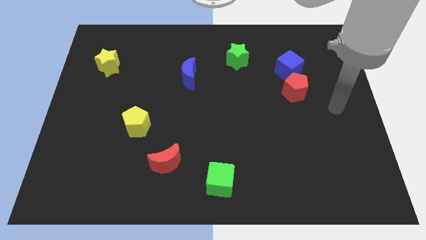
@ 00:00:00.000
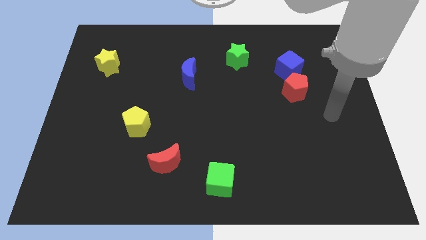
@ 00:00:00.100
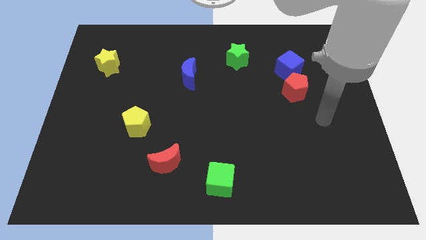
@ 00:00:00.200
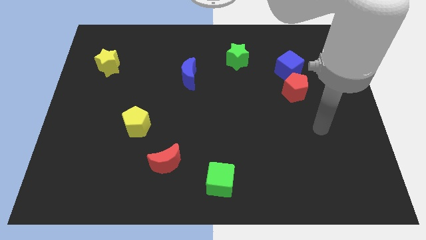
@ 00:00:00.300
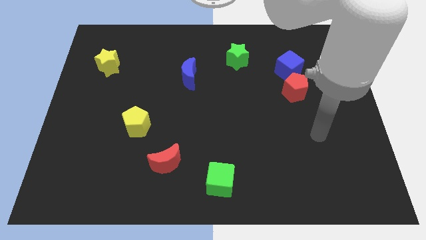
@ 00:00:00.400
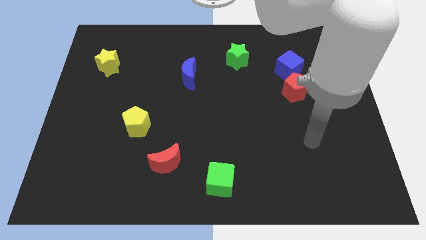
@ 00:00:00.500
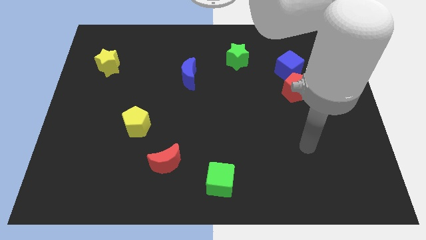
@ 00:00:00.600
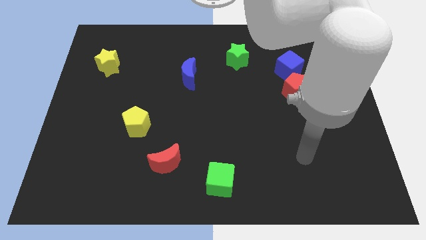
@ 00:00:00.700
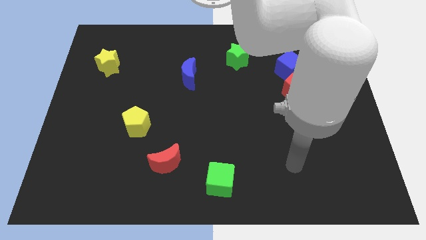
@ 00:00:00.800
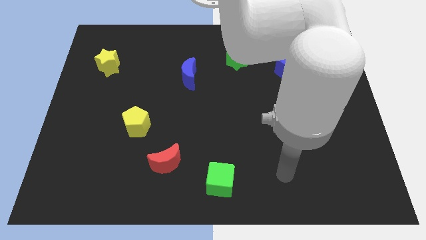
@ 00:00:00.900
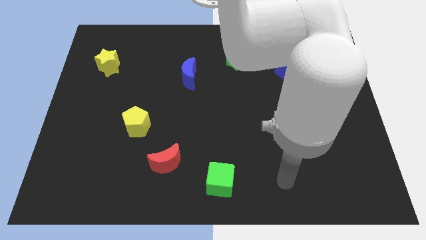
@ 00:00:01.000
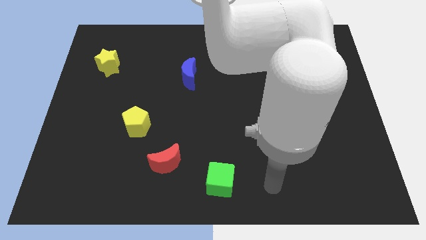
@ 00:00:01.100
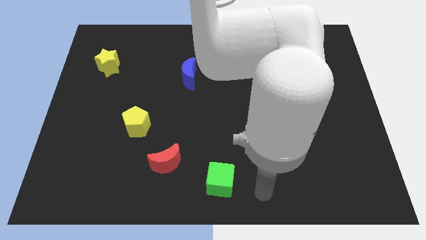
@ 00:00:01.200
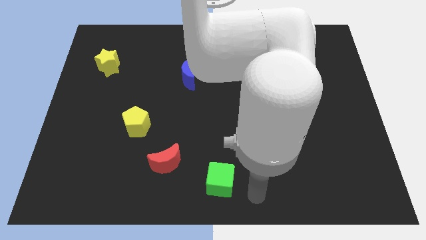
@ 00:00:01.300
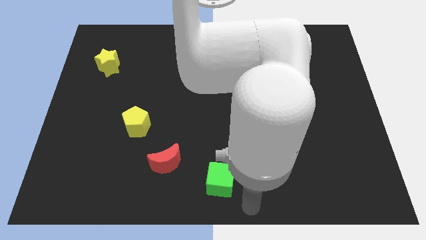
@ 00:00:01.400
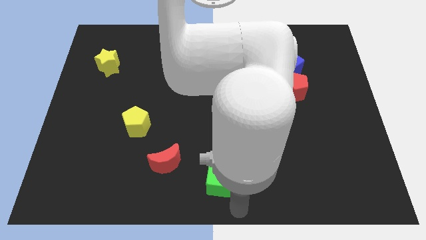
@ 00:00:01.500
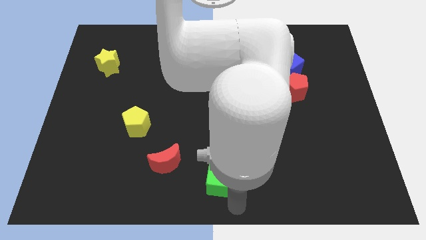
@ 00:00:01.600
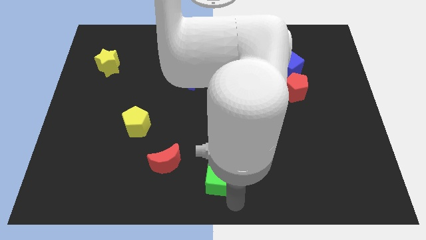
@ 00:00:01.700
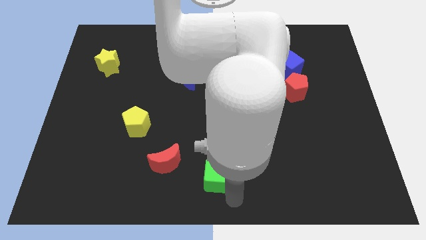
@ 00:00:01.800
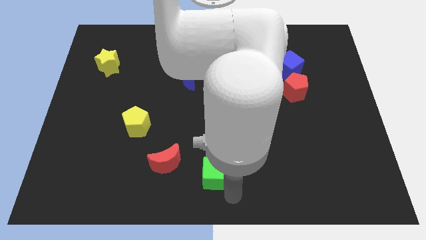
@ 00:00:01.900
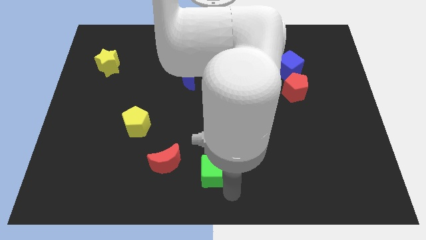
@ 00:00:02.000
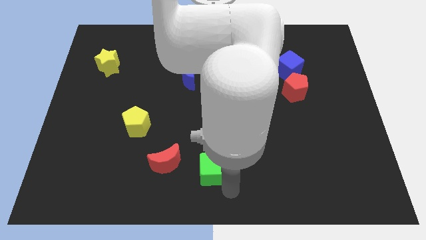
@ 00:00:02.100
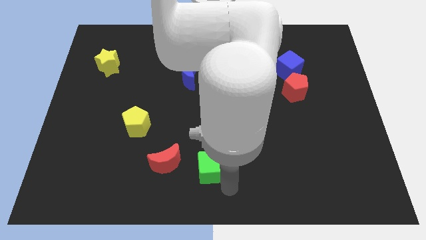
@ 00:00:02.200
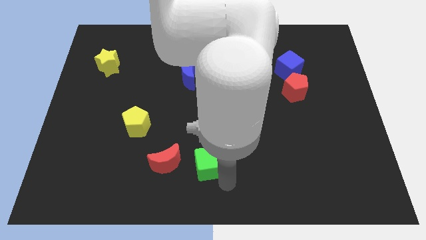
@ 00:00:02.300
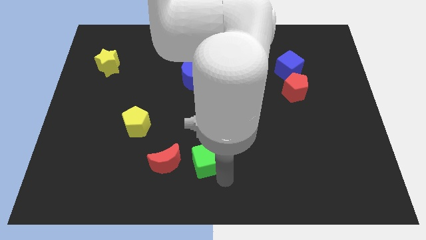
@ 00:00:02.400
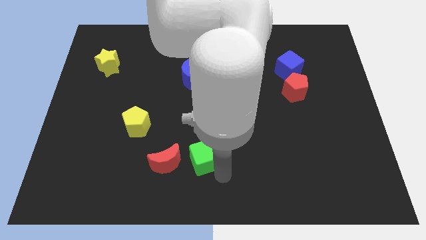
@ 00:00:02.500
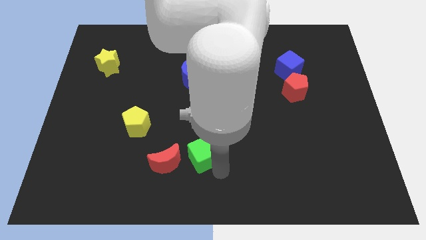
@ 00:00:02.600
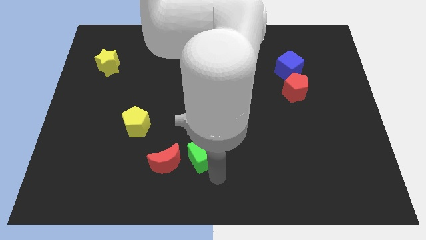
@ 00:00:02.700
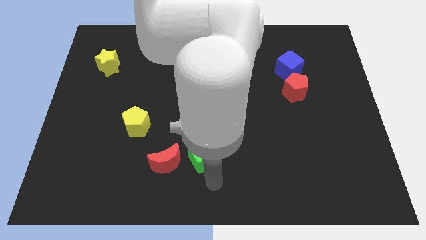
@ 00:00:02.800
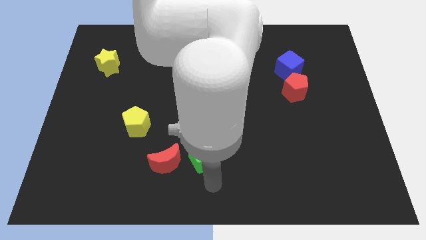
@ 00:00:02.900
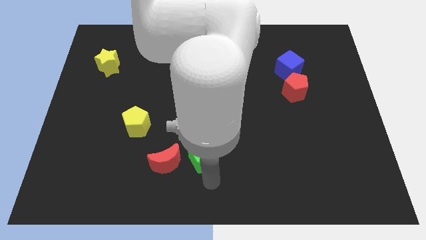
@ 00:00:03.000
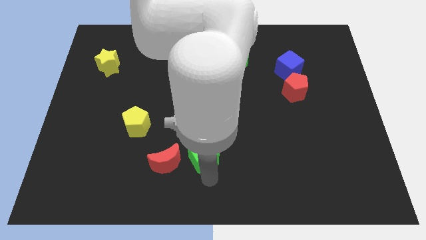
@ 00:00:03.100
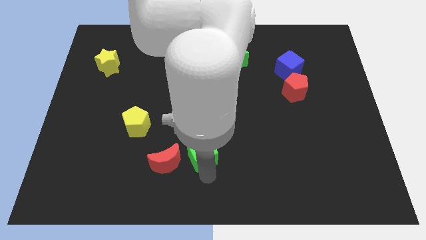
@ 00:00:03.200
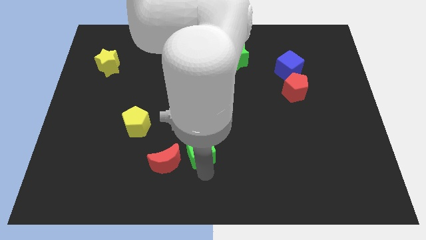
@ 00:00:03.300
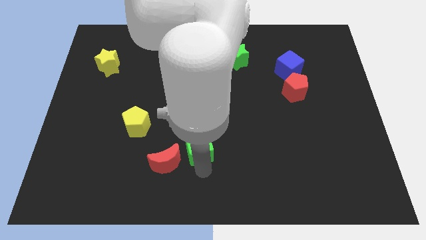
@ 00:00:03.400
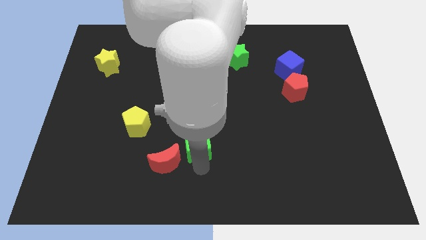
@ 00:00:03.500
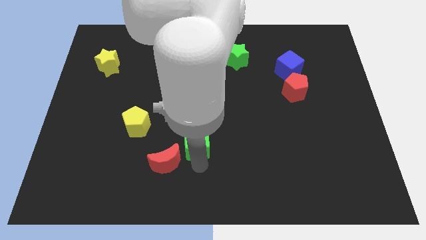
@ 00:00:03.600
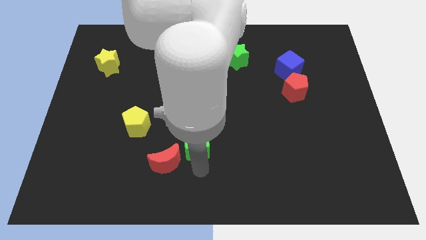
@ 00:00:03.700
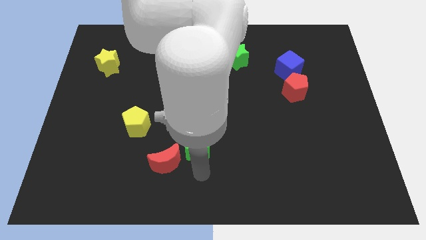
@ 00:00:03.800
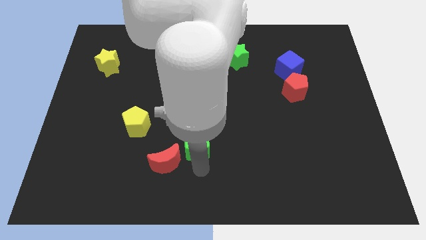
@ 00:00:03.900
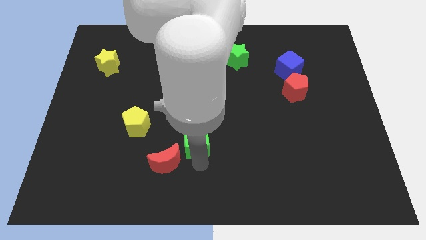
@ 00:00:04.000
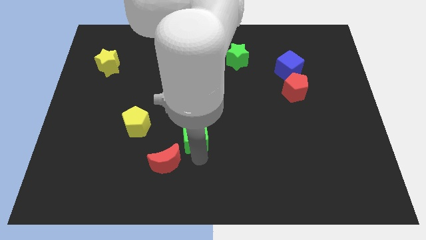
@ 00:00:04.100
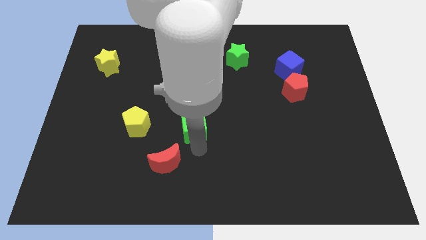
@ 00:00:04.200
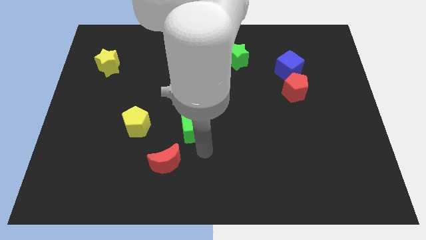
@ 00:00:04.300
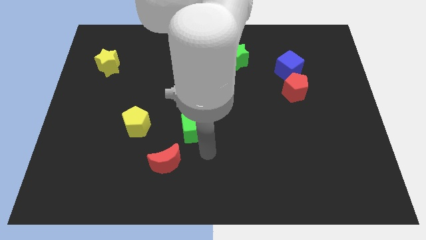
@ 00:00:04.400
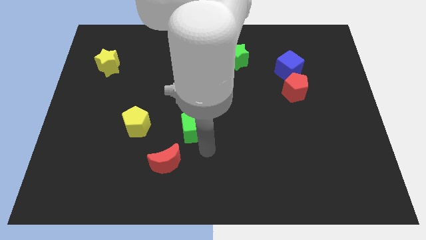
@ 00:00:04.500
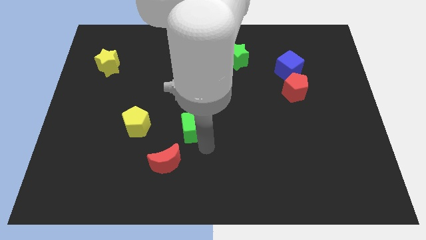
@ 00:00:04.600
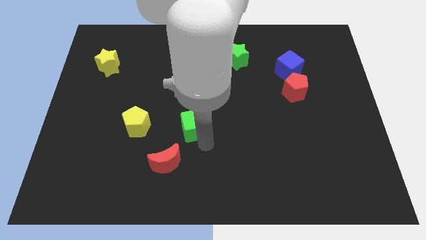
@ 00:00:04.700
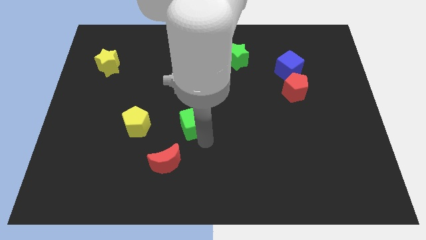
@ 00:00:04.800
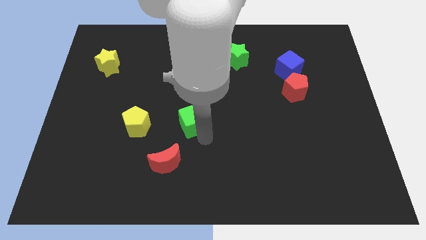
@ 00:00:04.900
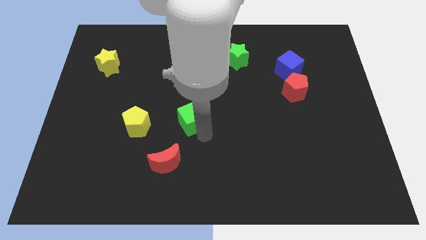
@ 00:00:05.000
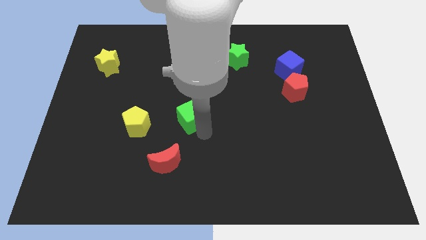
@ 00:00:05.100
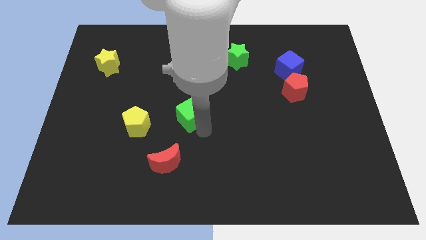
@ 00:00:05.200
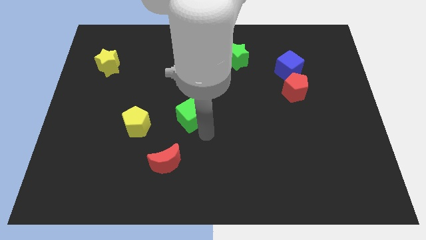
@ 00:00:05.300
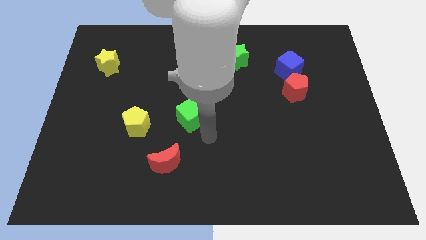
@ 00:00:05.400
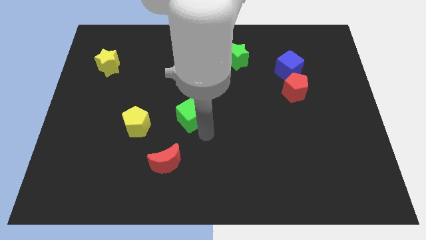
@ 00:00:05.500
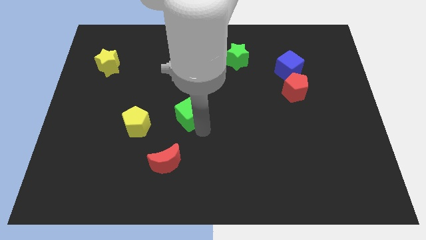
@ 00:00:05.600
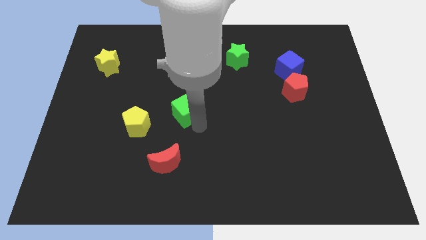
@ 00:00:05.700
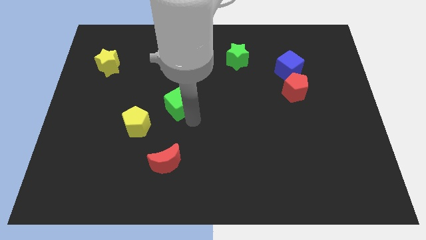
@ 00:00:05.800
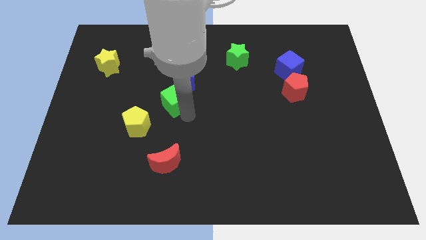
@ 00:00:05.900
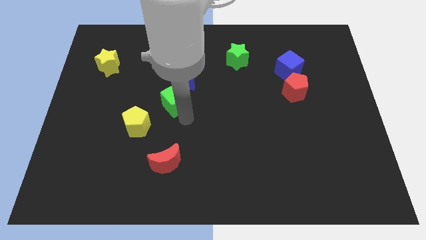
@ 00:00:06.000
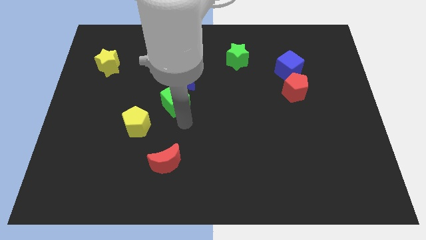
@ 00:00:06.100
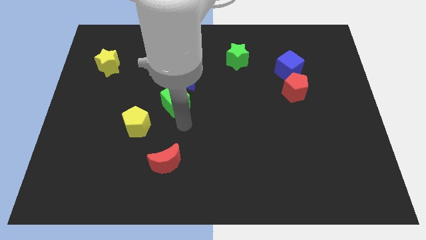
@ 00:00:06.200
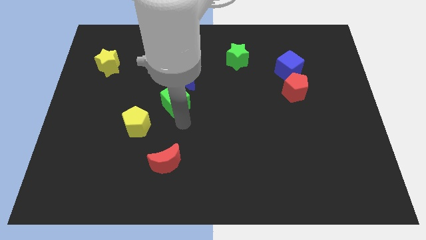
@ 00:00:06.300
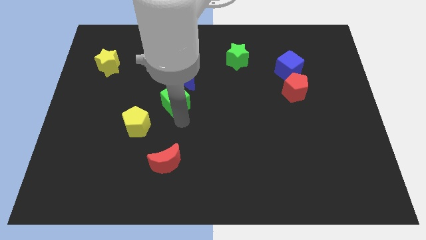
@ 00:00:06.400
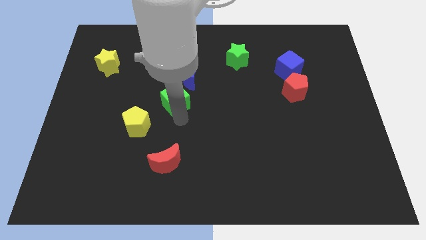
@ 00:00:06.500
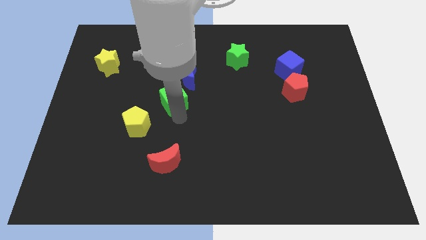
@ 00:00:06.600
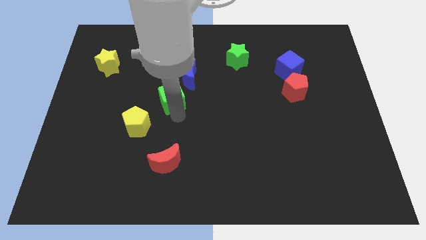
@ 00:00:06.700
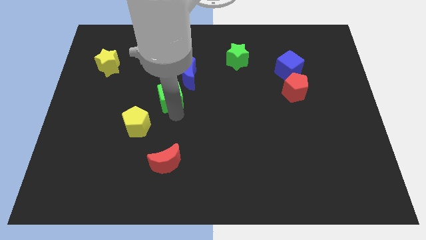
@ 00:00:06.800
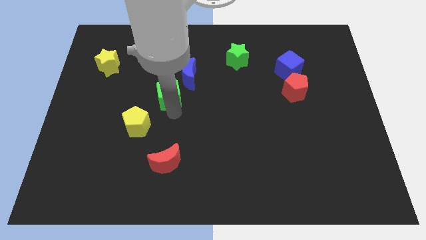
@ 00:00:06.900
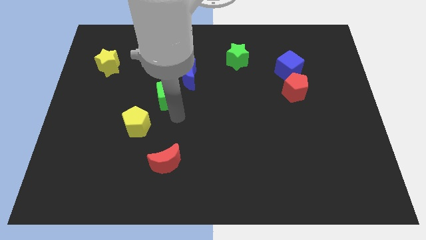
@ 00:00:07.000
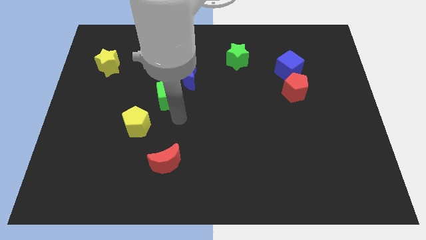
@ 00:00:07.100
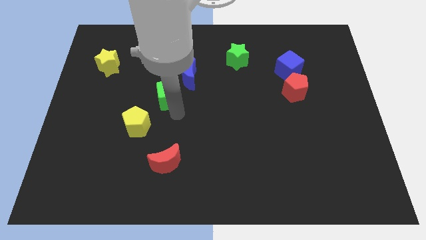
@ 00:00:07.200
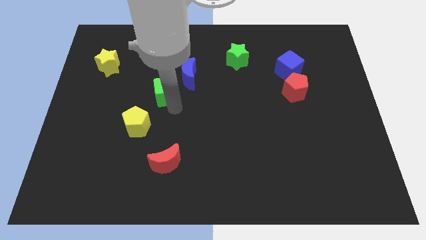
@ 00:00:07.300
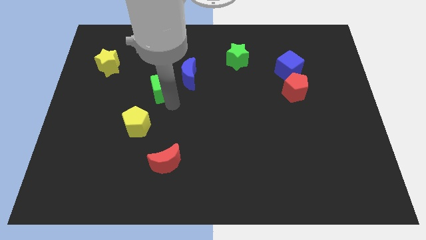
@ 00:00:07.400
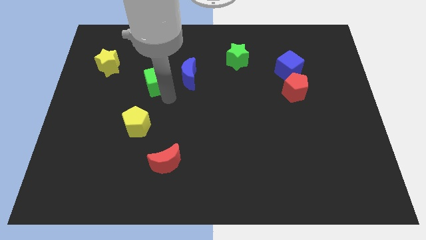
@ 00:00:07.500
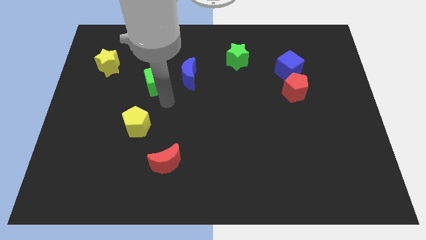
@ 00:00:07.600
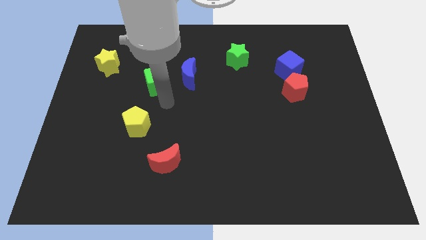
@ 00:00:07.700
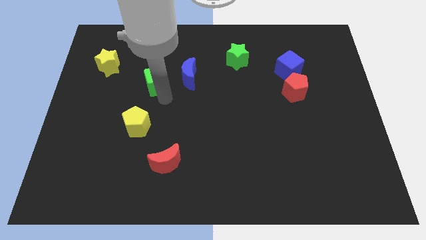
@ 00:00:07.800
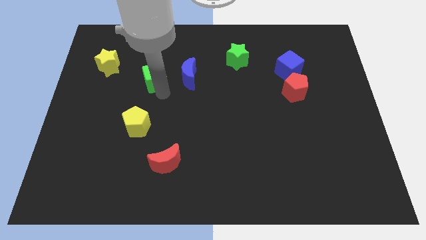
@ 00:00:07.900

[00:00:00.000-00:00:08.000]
slide the green cube right of the yellow star
